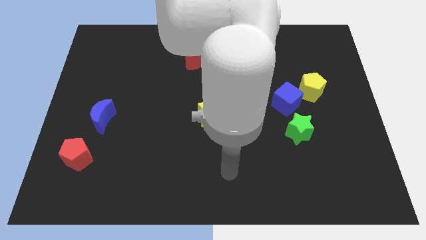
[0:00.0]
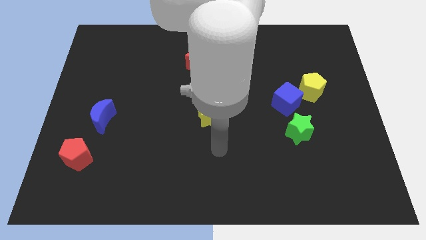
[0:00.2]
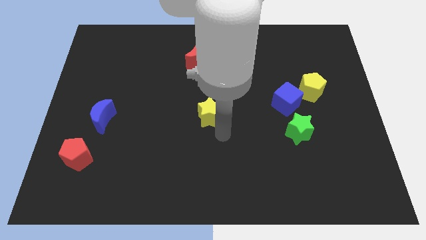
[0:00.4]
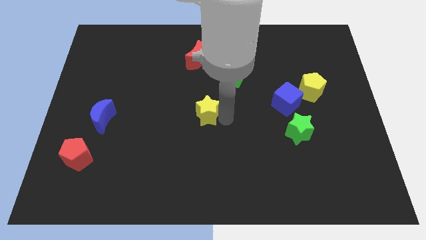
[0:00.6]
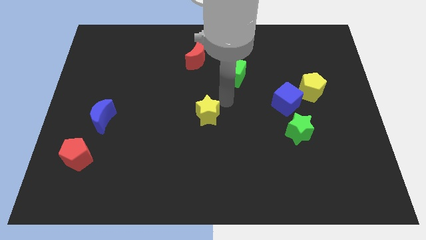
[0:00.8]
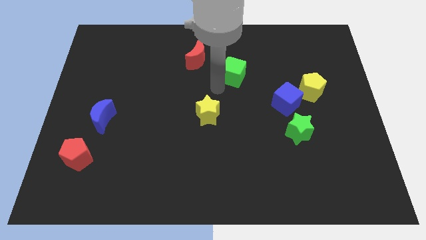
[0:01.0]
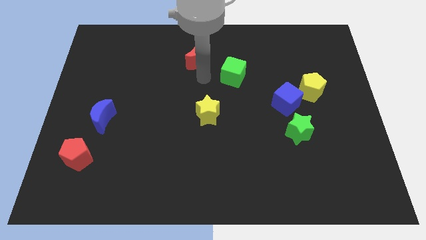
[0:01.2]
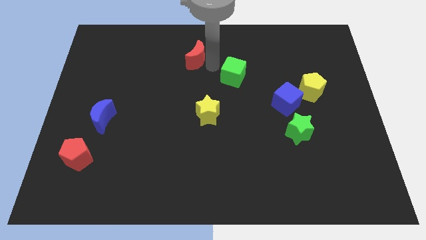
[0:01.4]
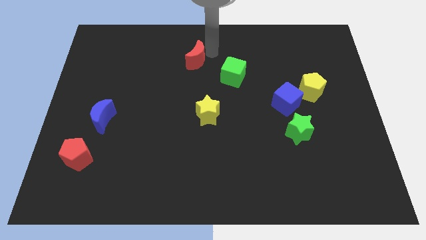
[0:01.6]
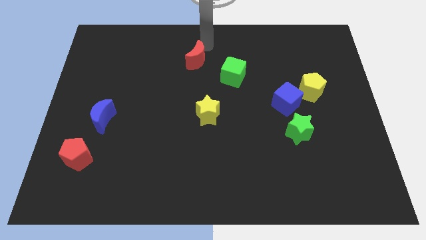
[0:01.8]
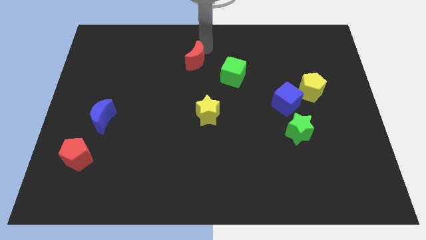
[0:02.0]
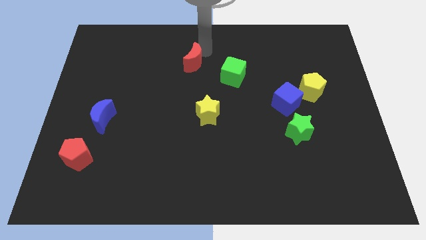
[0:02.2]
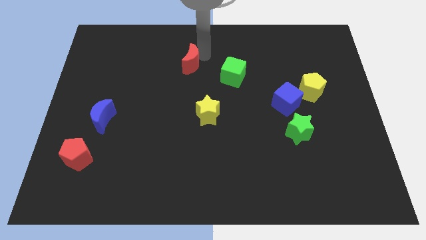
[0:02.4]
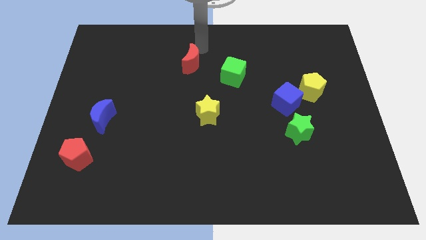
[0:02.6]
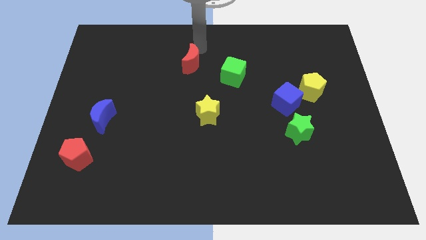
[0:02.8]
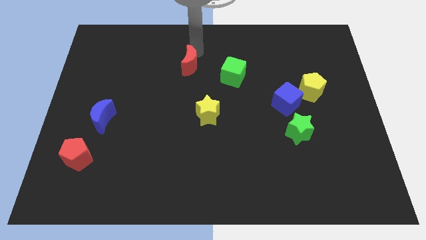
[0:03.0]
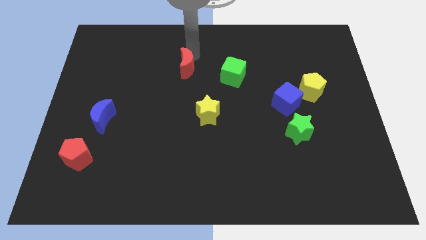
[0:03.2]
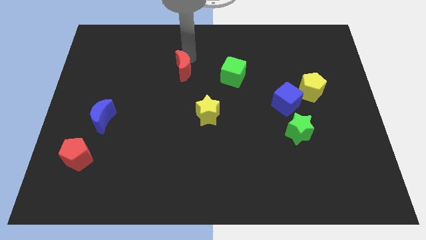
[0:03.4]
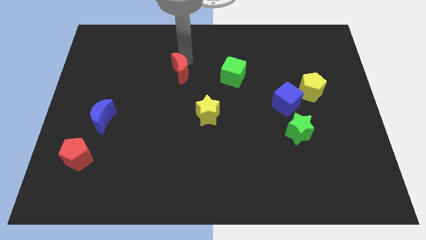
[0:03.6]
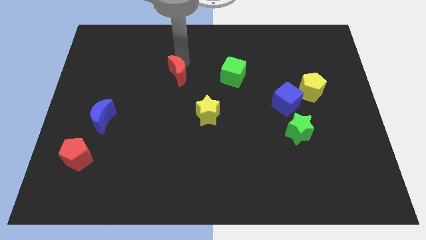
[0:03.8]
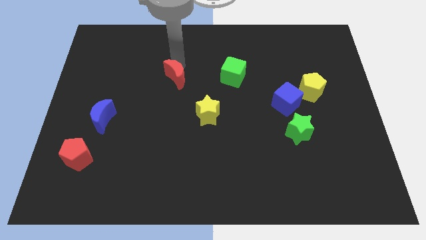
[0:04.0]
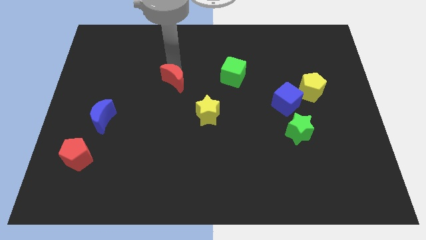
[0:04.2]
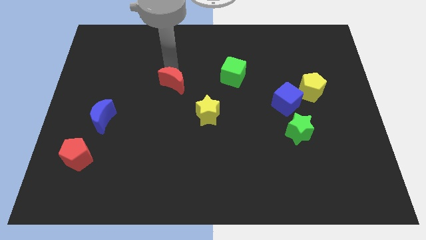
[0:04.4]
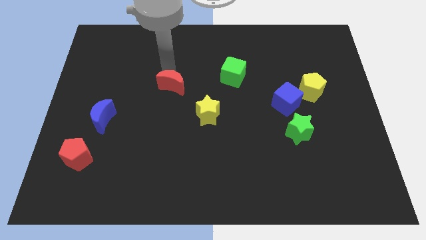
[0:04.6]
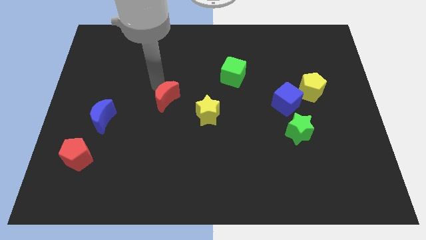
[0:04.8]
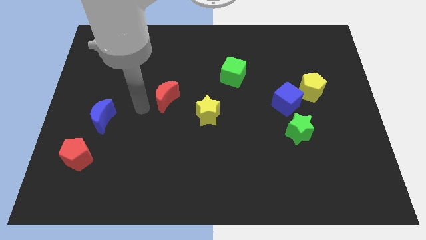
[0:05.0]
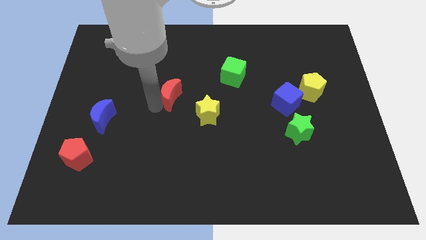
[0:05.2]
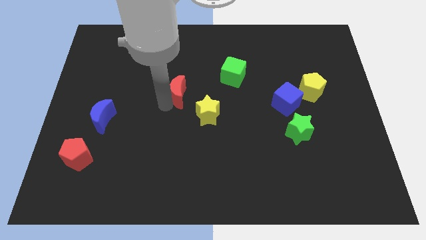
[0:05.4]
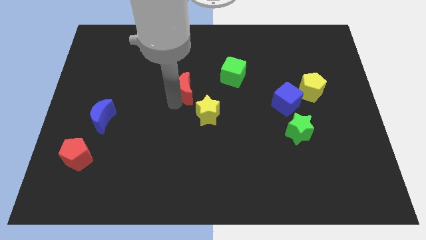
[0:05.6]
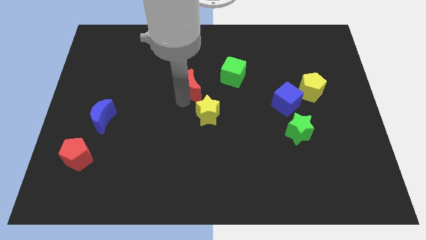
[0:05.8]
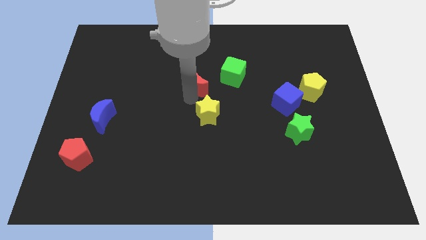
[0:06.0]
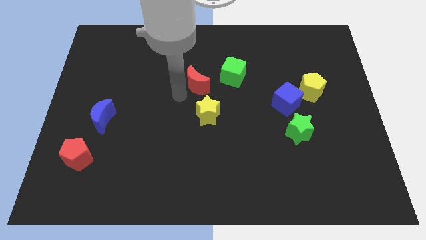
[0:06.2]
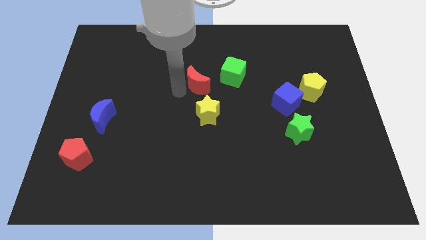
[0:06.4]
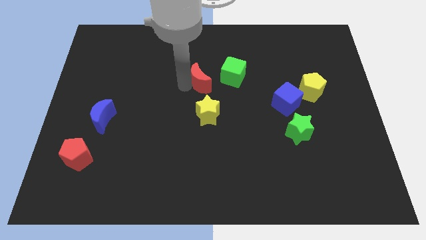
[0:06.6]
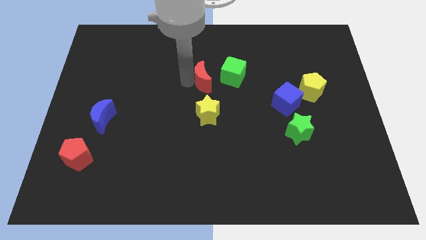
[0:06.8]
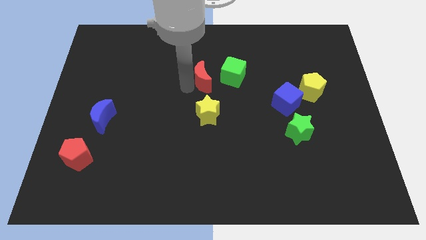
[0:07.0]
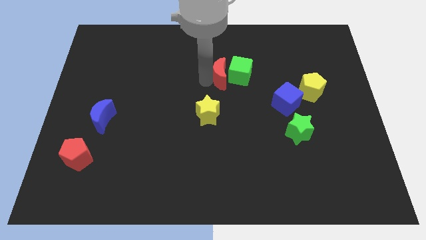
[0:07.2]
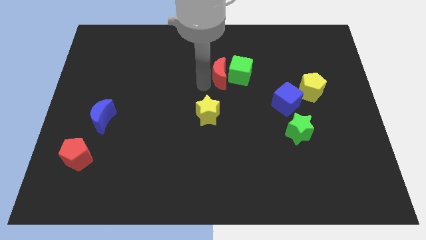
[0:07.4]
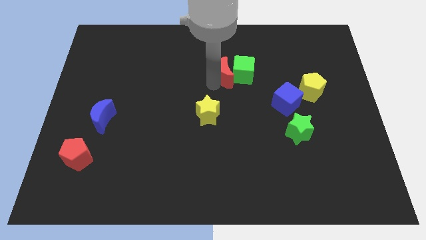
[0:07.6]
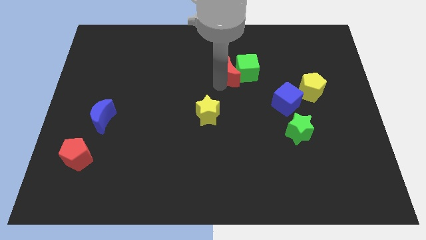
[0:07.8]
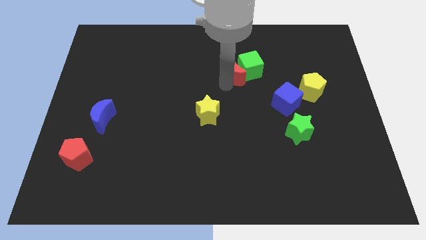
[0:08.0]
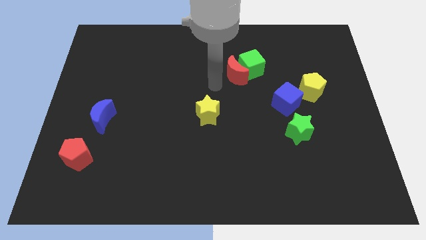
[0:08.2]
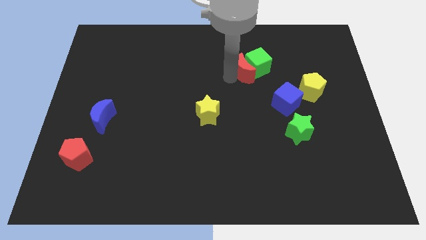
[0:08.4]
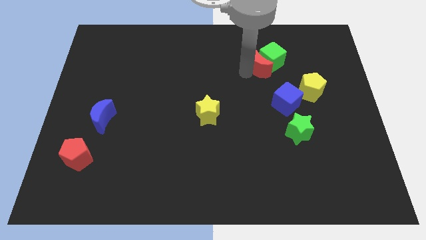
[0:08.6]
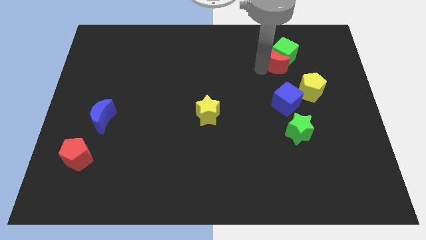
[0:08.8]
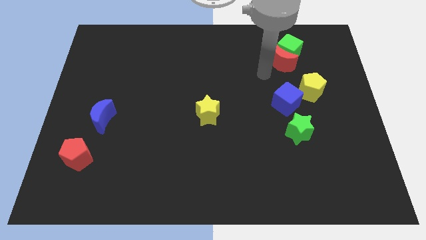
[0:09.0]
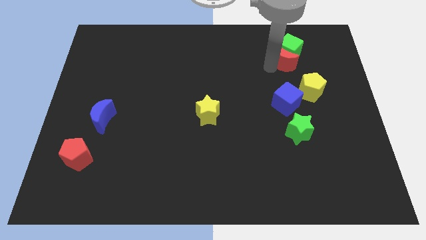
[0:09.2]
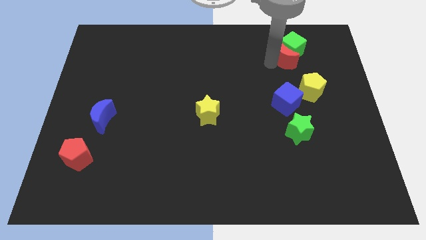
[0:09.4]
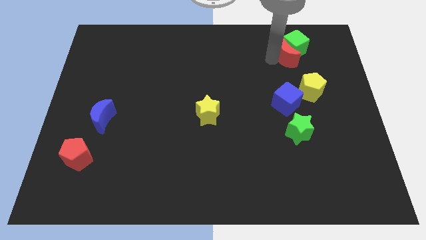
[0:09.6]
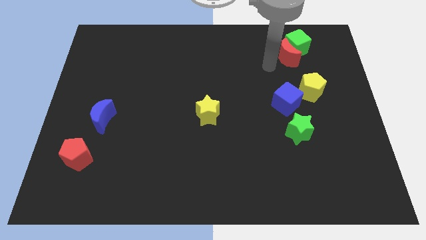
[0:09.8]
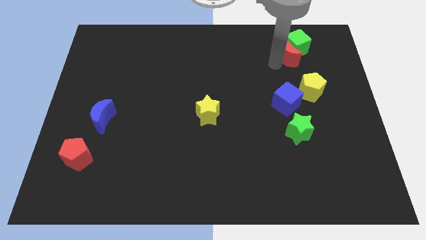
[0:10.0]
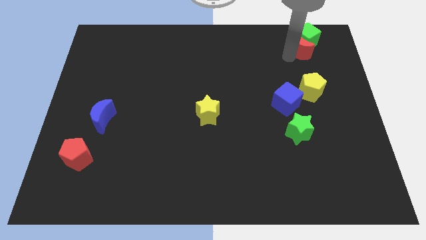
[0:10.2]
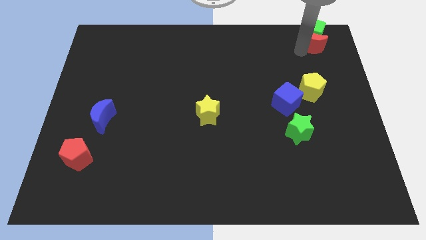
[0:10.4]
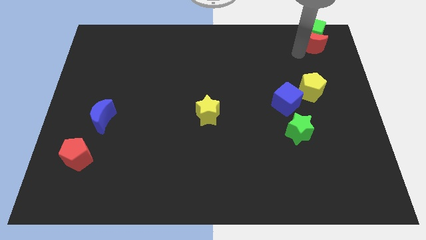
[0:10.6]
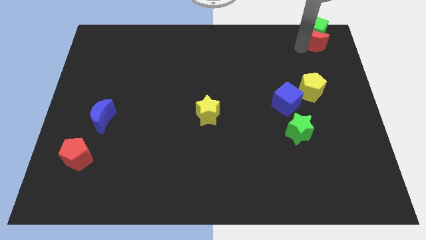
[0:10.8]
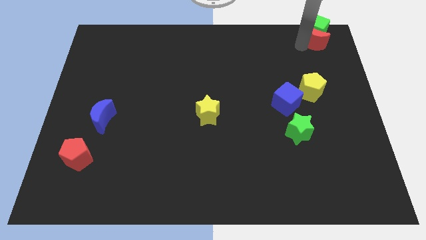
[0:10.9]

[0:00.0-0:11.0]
put the red moon to the top right corner

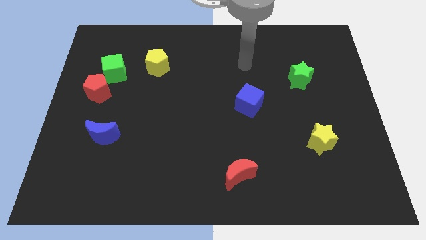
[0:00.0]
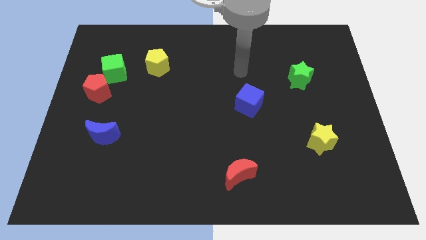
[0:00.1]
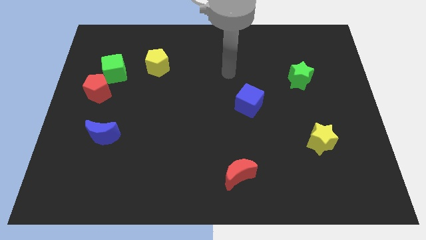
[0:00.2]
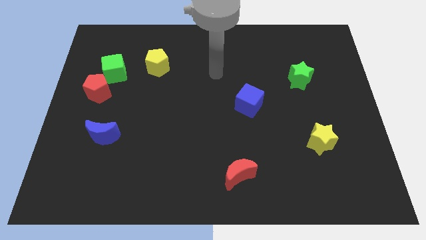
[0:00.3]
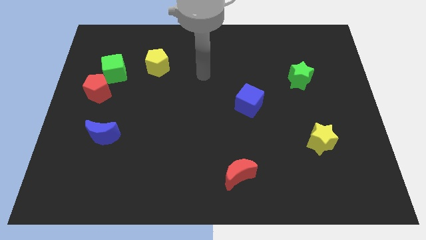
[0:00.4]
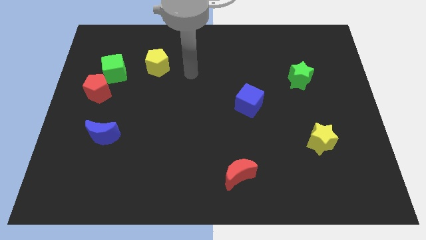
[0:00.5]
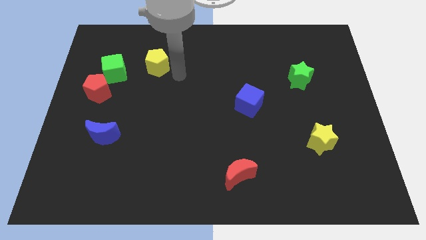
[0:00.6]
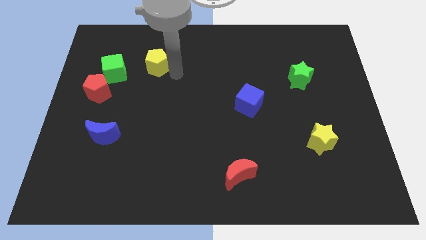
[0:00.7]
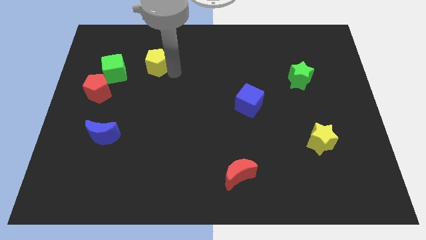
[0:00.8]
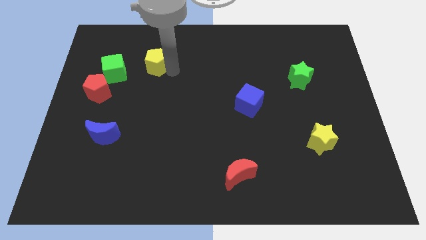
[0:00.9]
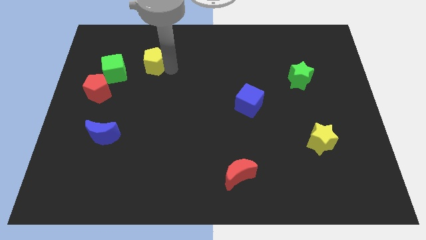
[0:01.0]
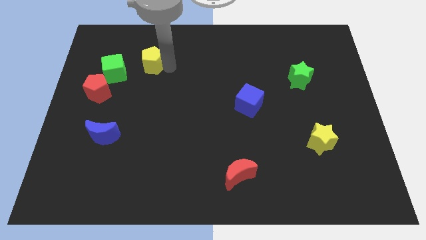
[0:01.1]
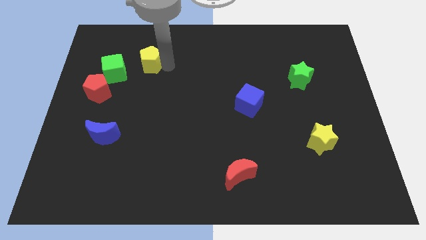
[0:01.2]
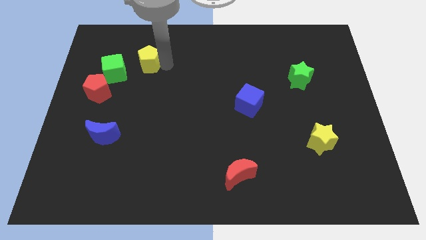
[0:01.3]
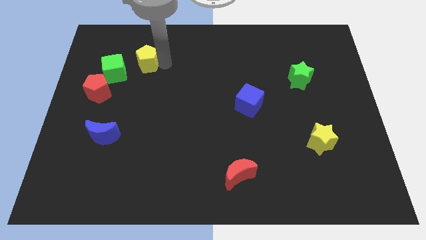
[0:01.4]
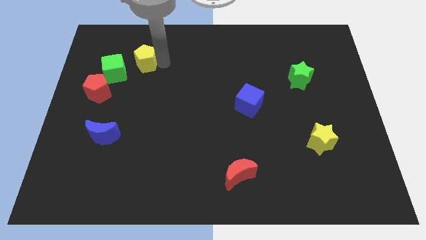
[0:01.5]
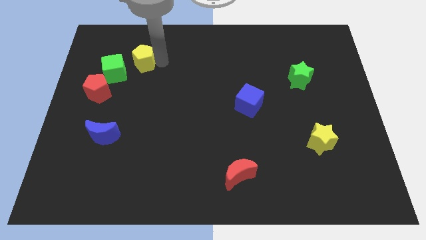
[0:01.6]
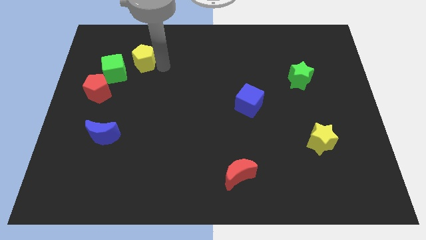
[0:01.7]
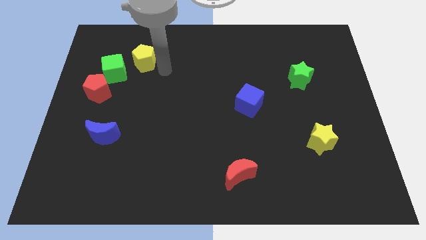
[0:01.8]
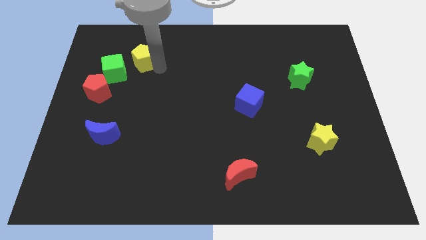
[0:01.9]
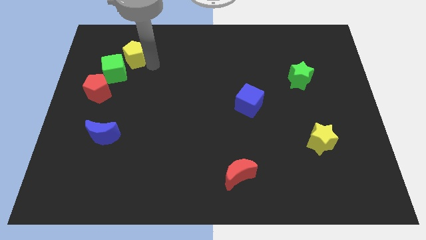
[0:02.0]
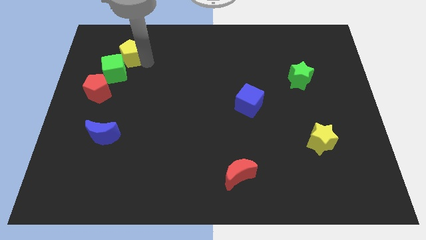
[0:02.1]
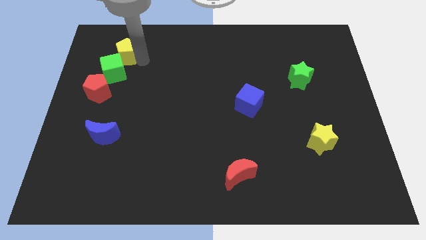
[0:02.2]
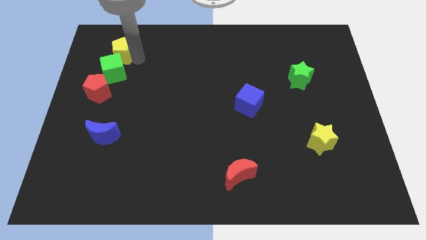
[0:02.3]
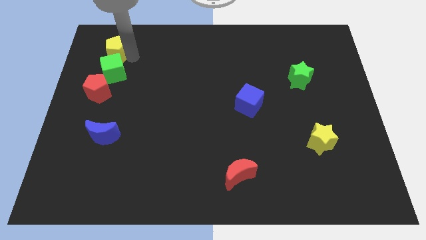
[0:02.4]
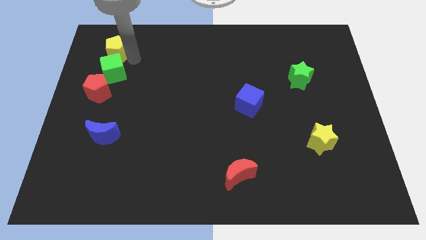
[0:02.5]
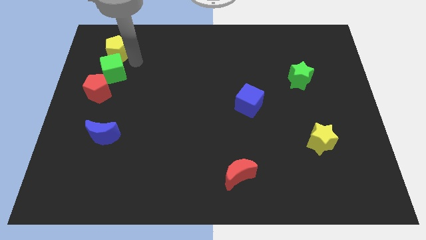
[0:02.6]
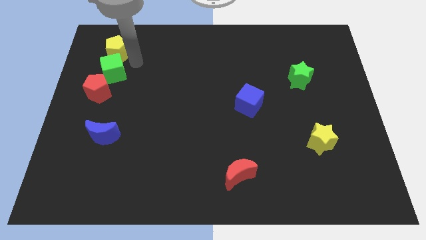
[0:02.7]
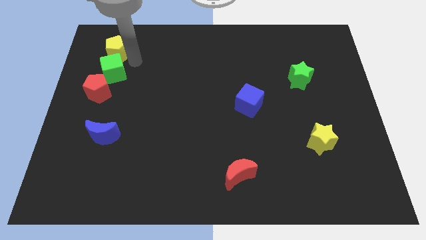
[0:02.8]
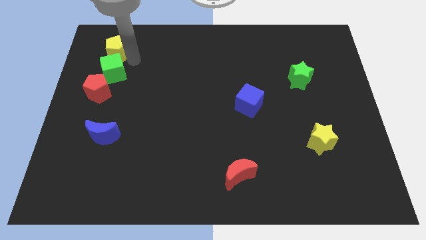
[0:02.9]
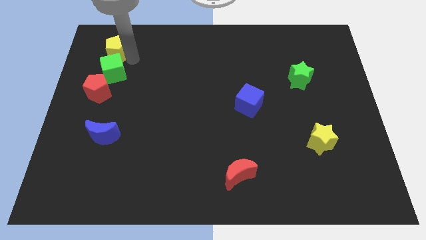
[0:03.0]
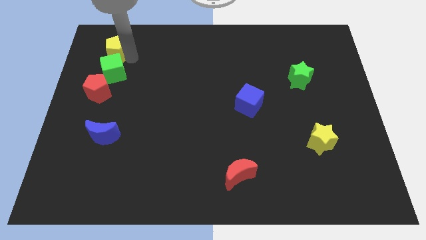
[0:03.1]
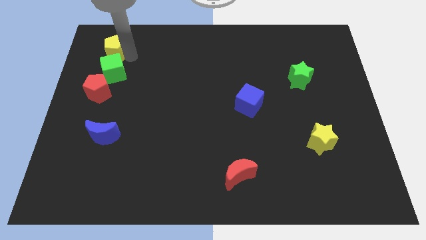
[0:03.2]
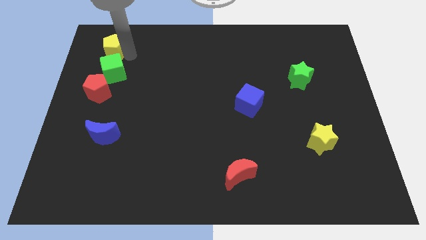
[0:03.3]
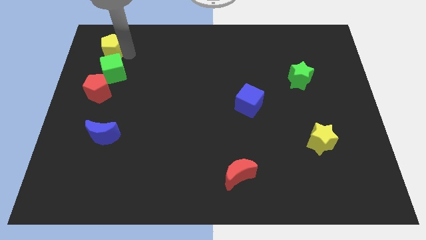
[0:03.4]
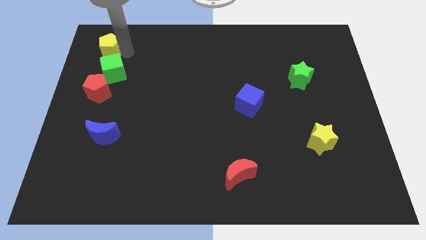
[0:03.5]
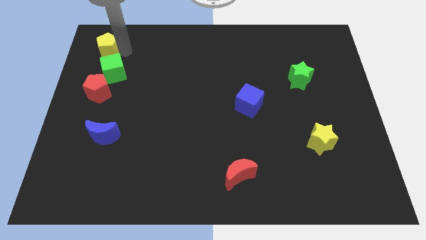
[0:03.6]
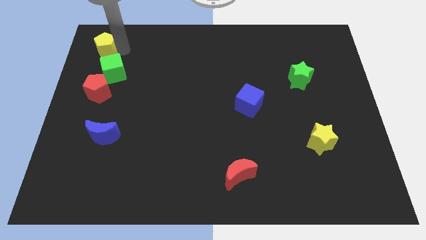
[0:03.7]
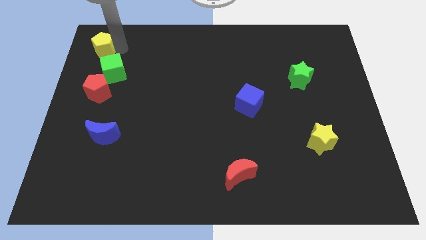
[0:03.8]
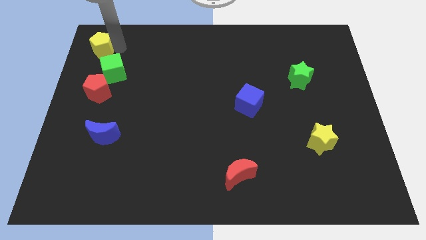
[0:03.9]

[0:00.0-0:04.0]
move the yellow pentagon to the top left of the board
